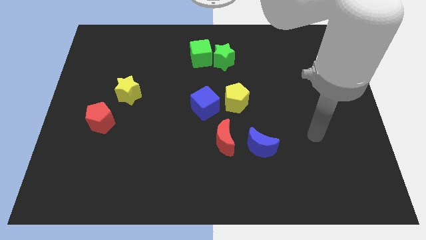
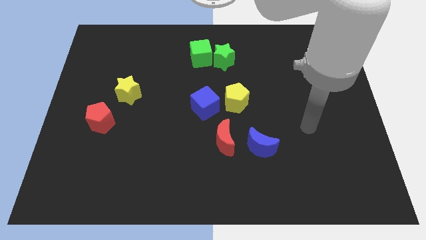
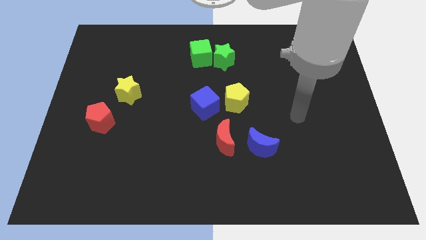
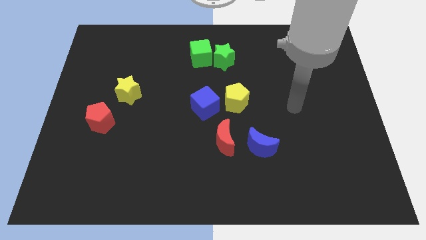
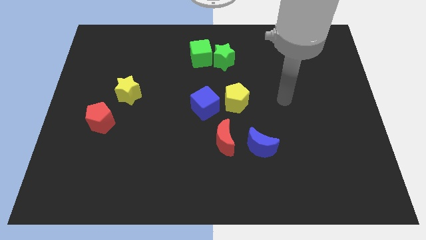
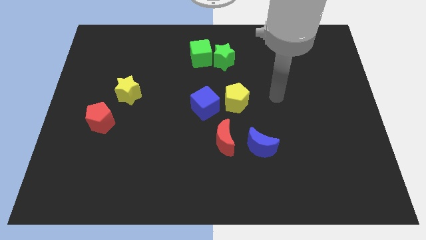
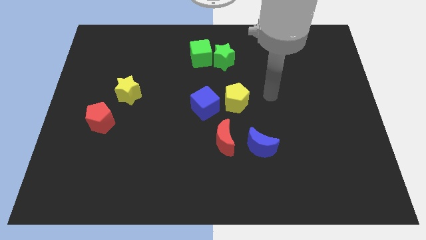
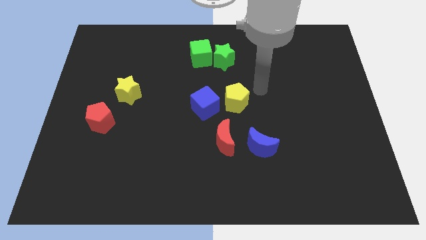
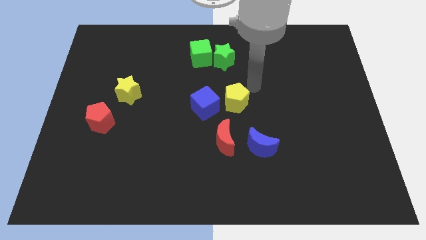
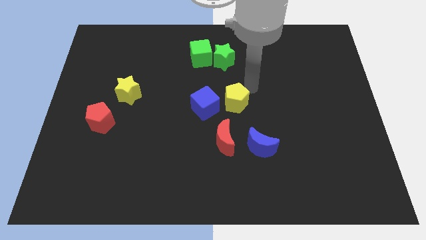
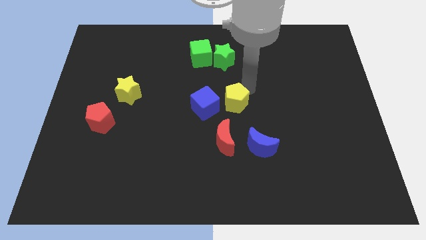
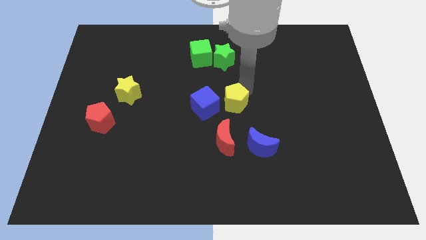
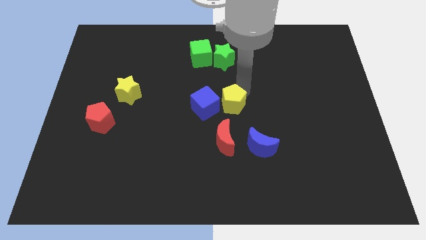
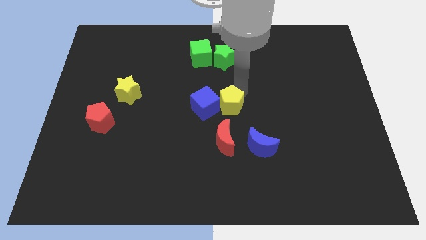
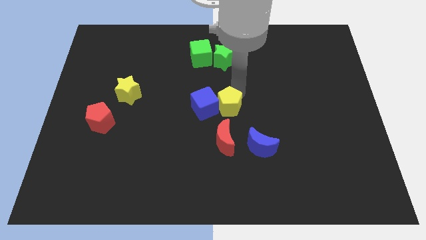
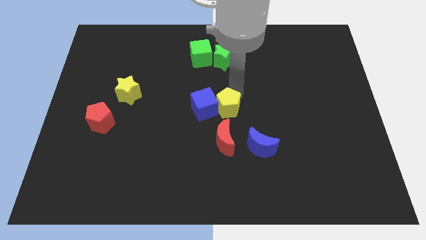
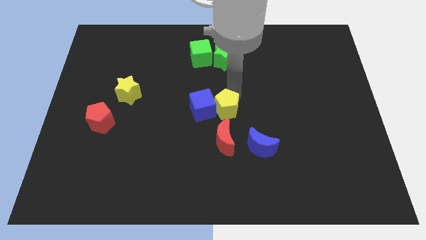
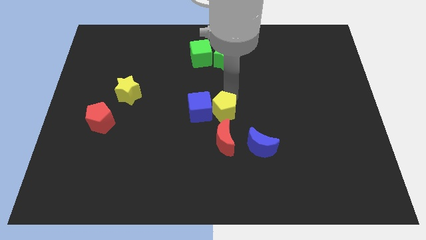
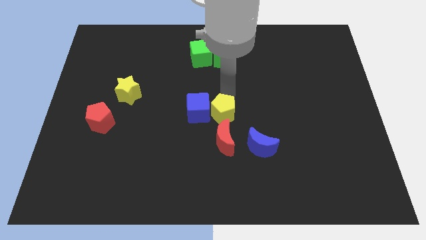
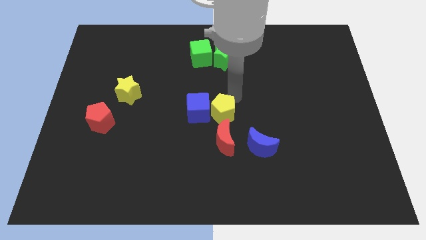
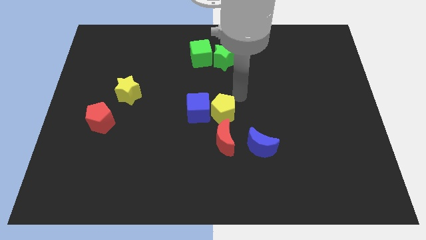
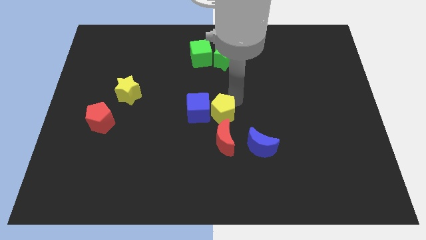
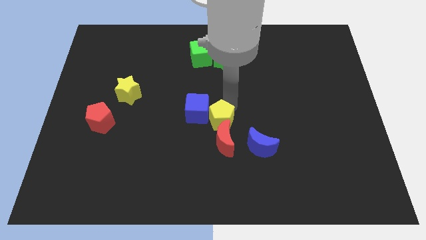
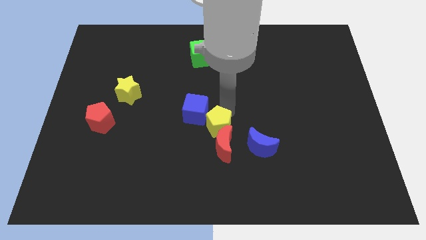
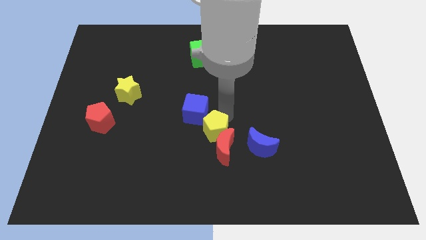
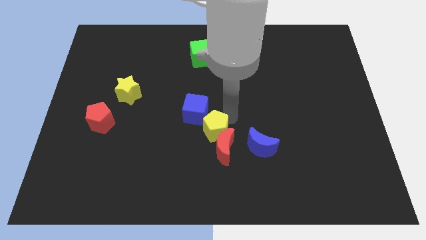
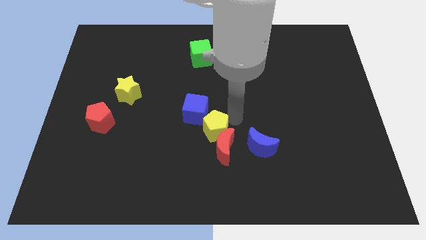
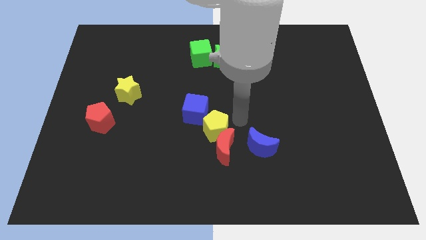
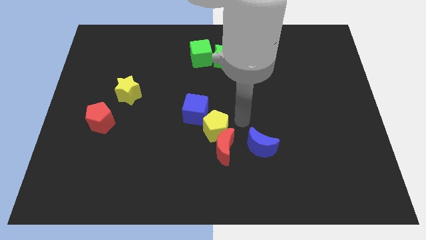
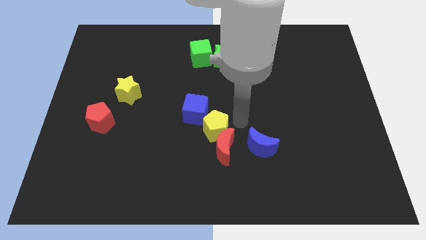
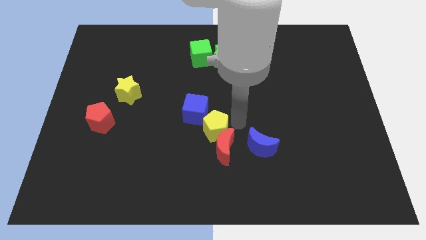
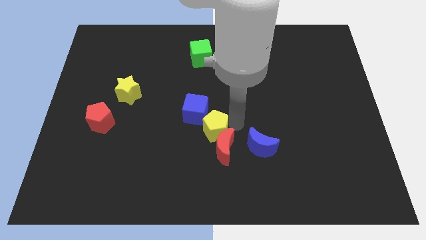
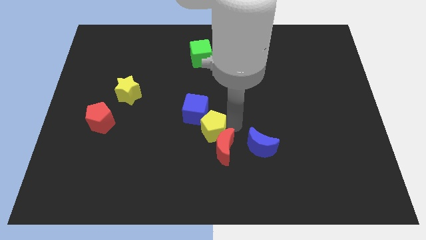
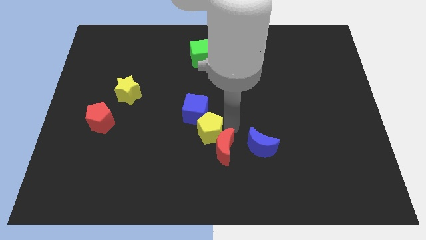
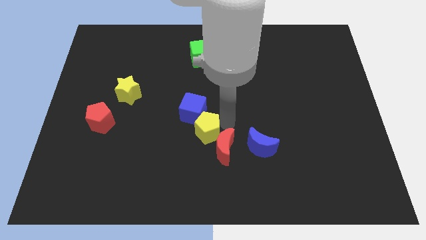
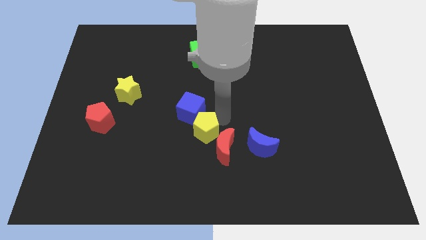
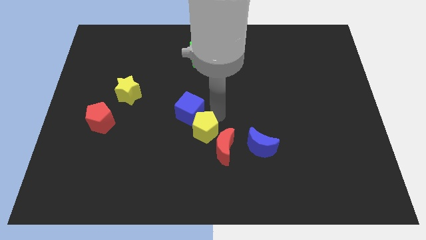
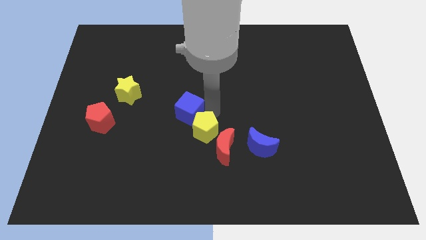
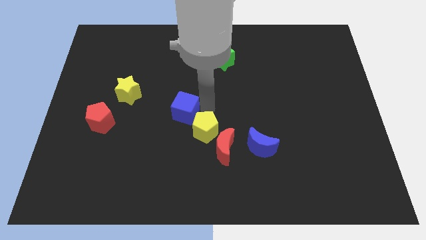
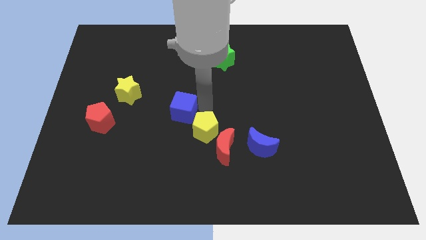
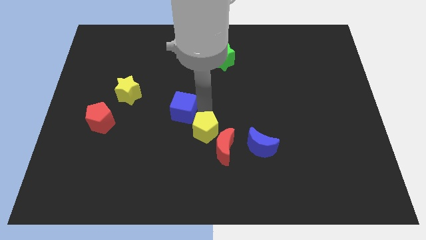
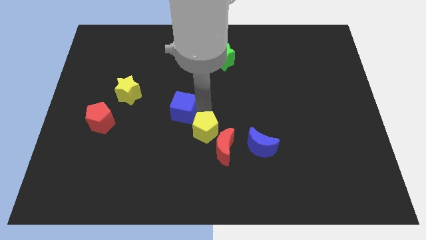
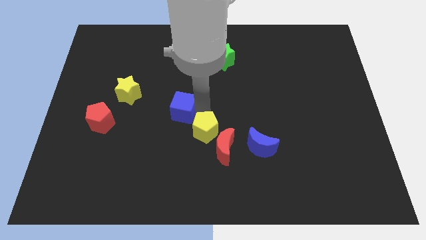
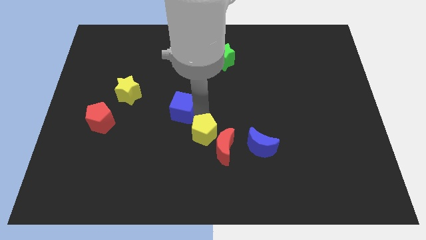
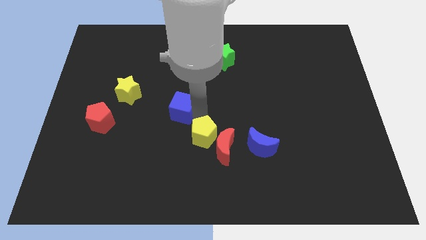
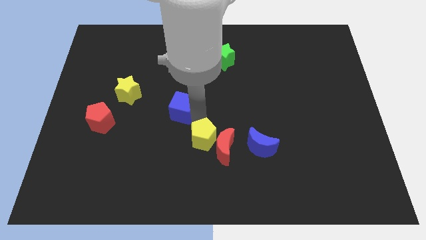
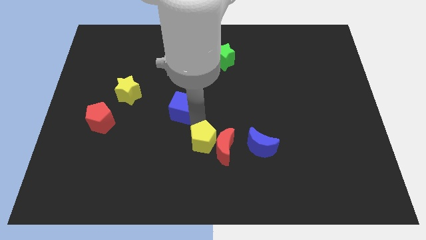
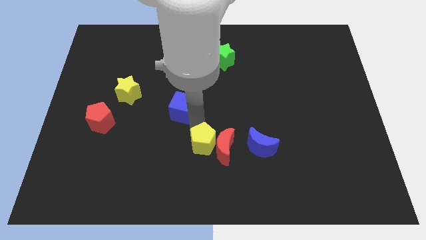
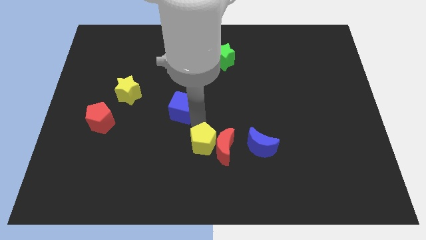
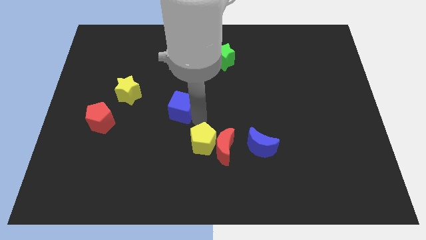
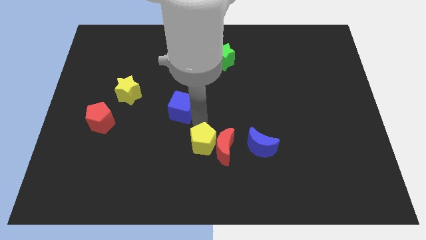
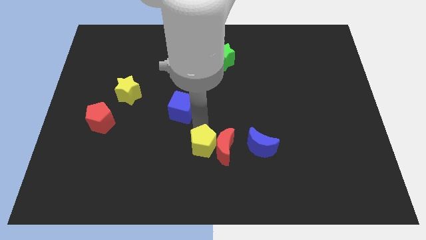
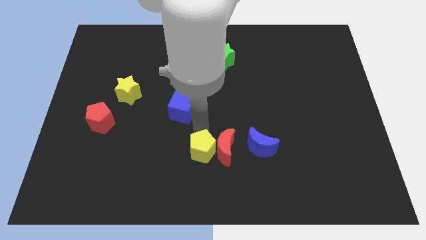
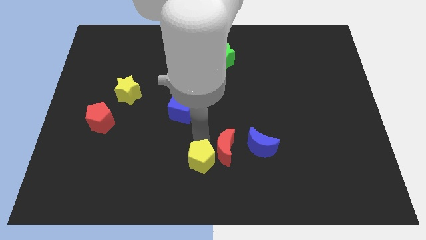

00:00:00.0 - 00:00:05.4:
move the yellow pentagon to the bottom side

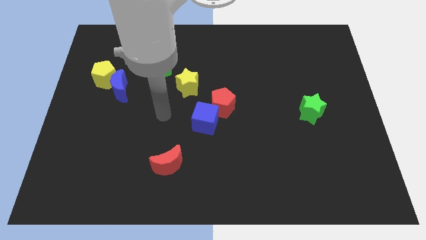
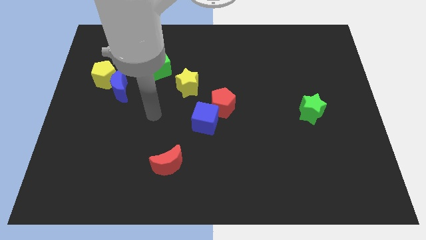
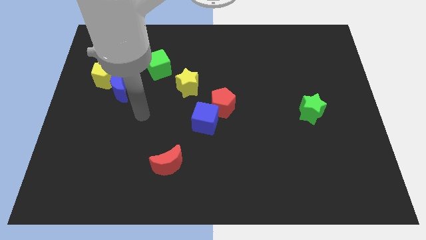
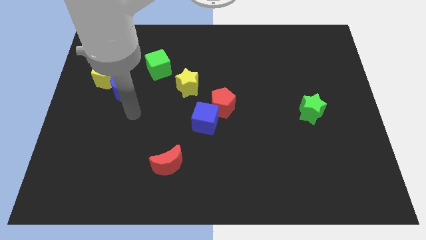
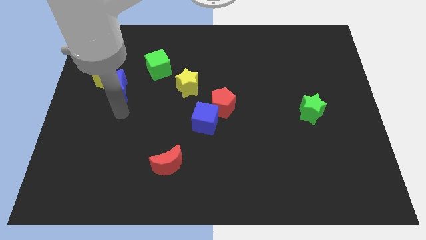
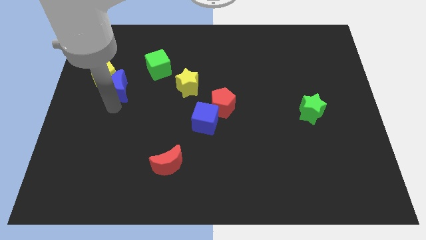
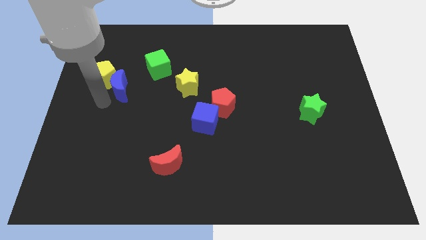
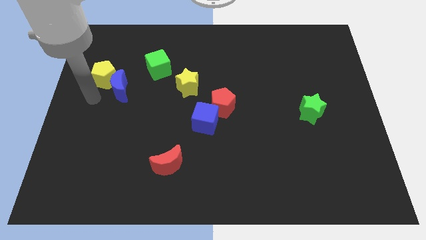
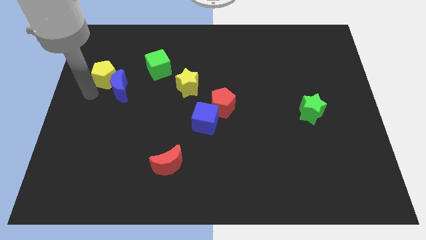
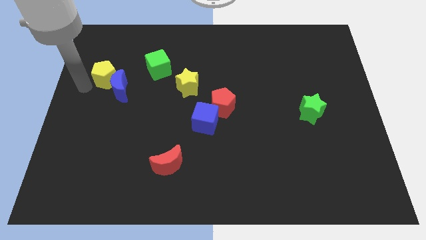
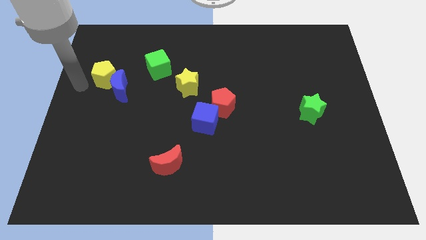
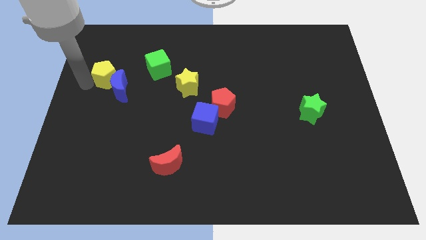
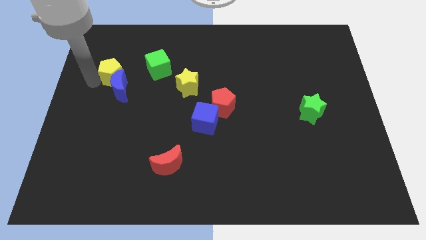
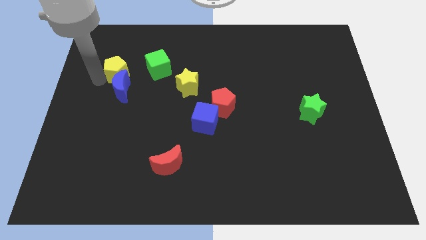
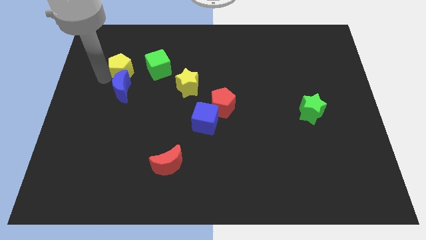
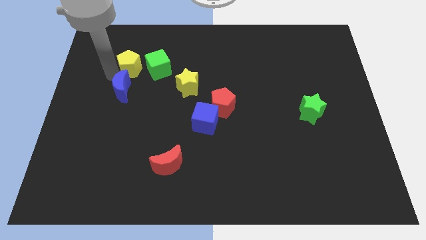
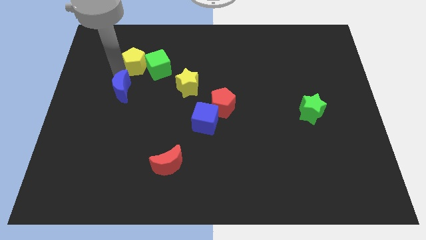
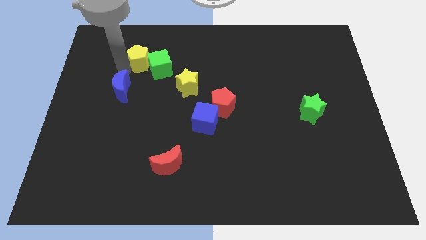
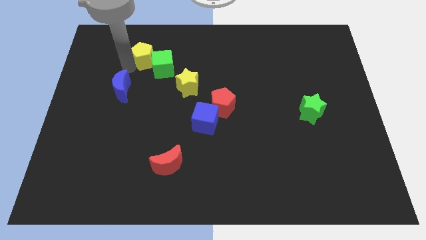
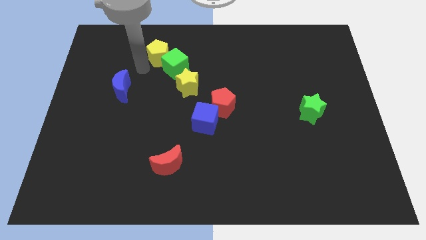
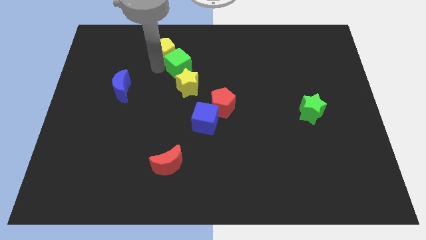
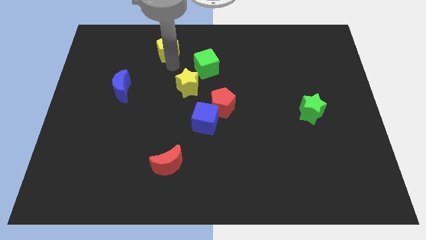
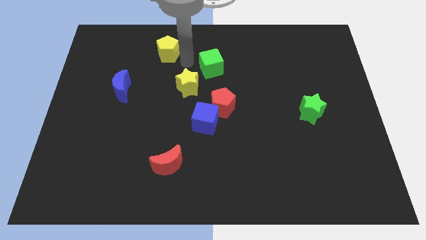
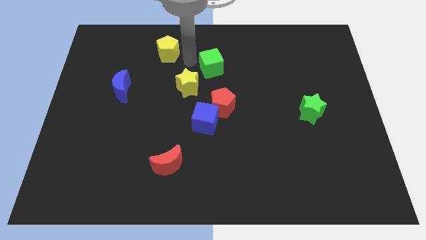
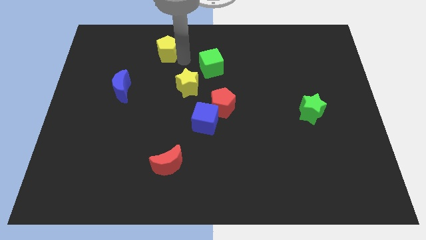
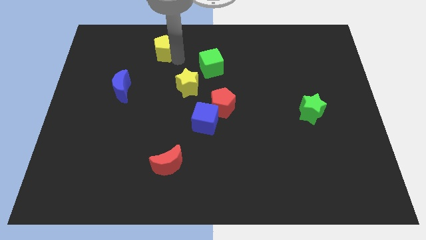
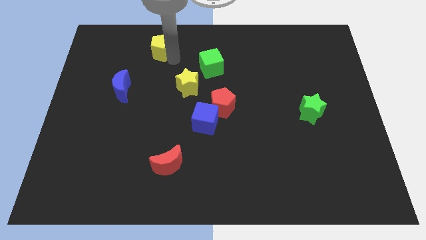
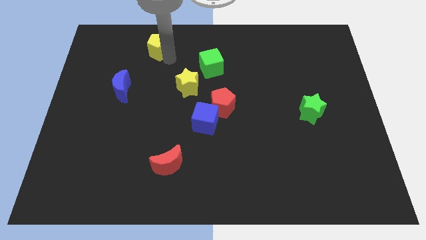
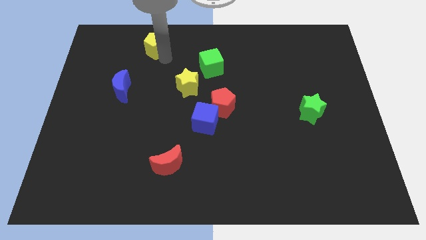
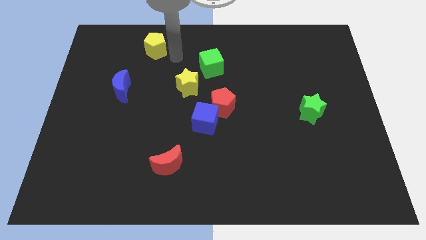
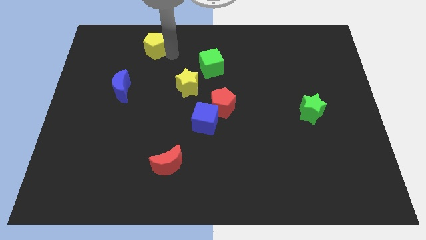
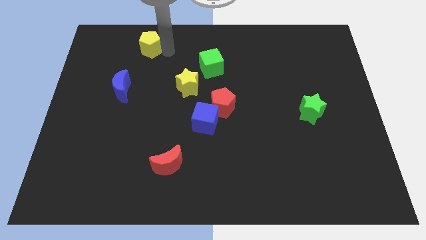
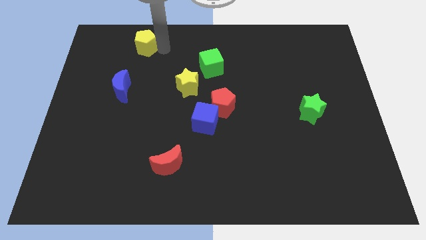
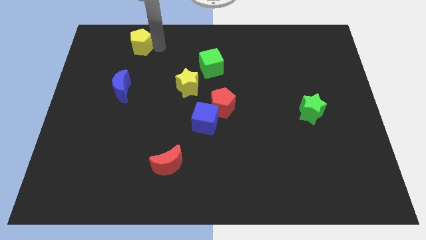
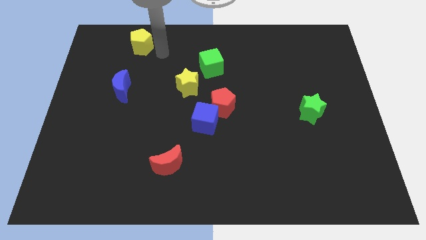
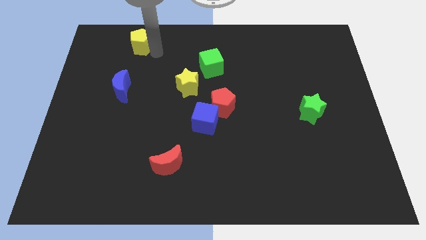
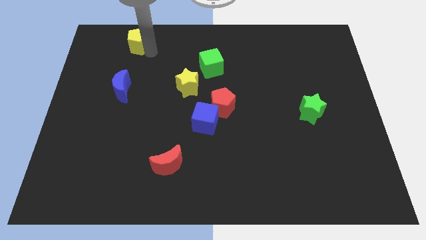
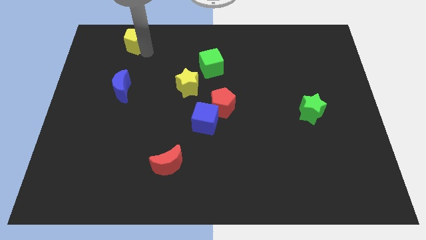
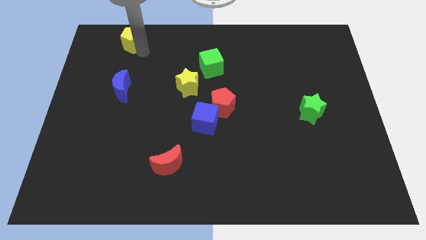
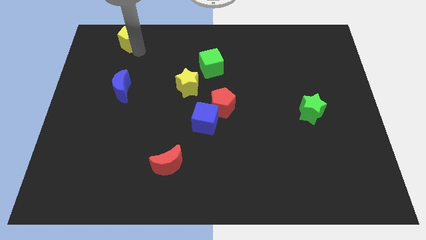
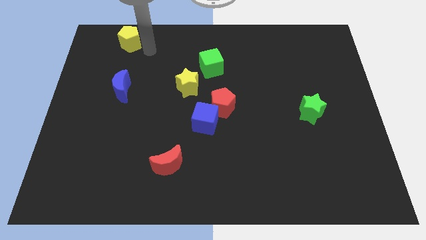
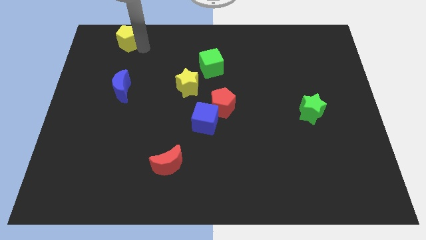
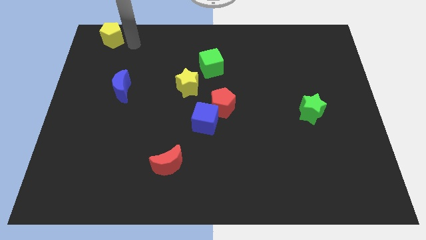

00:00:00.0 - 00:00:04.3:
put the yellow pentagon to the top left of the board
